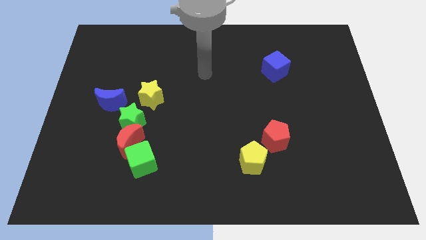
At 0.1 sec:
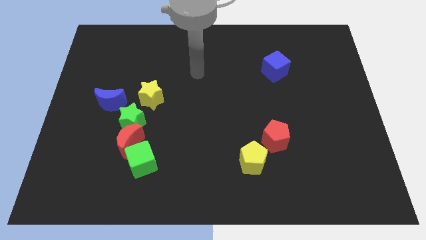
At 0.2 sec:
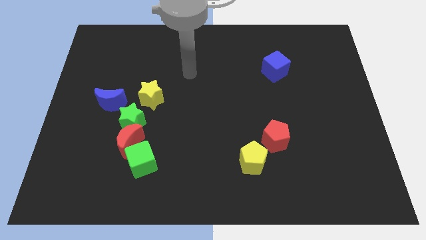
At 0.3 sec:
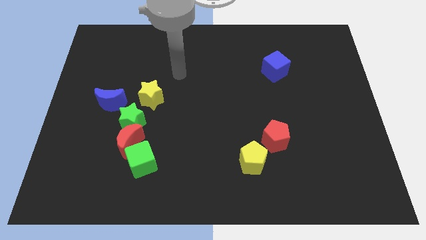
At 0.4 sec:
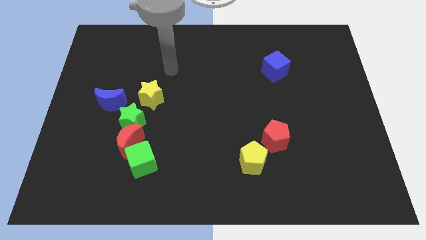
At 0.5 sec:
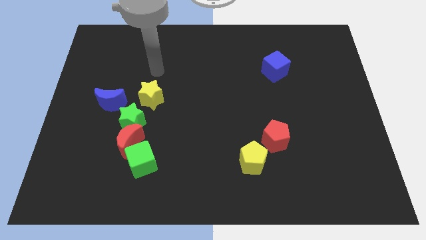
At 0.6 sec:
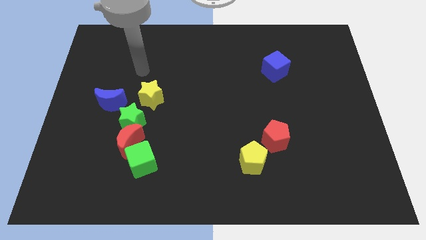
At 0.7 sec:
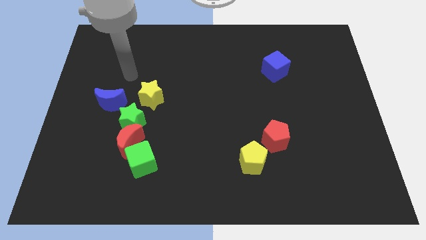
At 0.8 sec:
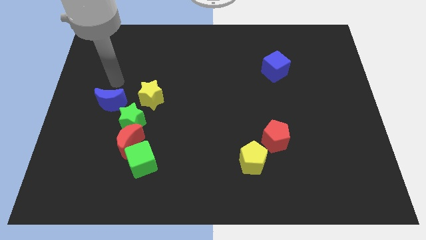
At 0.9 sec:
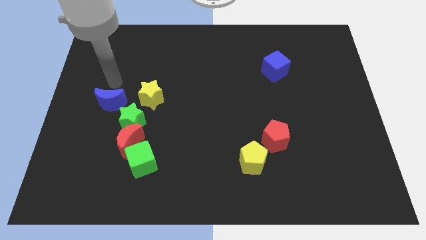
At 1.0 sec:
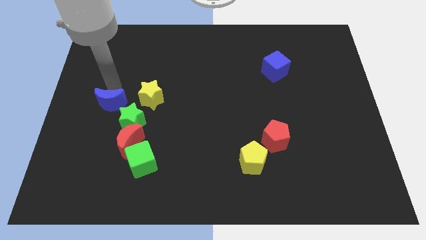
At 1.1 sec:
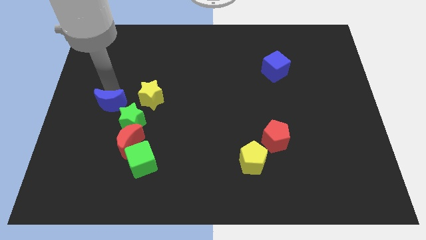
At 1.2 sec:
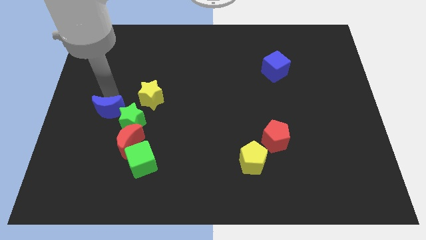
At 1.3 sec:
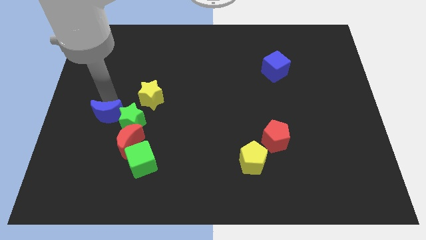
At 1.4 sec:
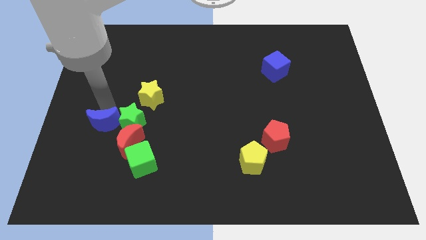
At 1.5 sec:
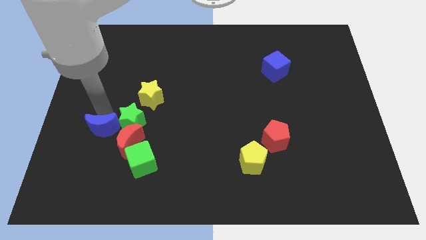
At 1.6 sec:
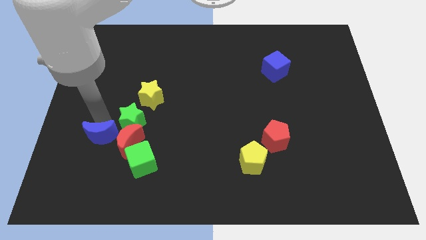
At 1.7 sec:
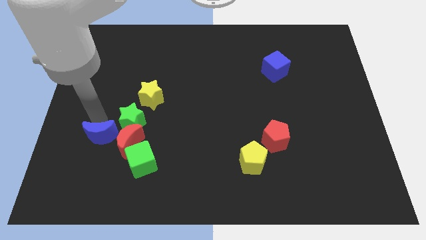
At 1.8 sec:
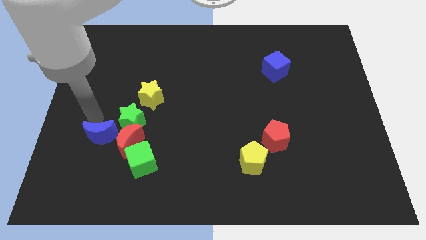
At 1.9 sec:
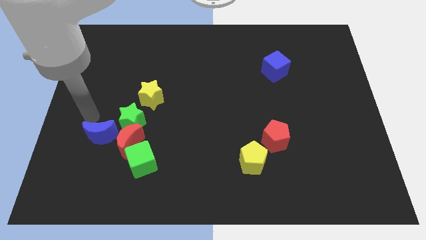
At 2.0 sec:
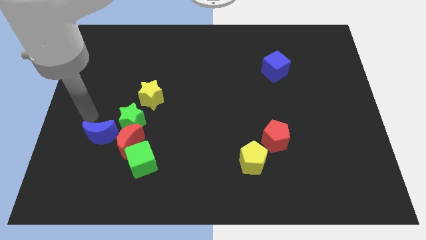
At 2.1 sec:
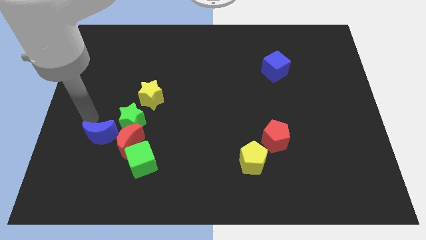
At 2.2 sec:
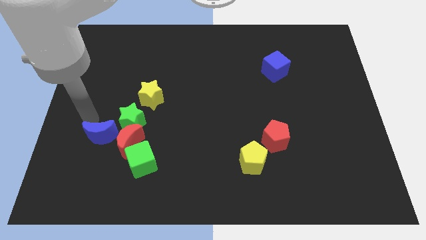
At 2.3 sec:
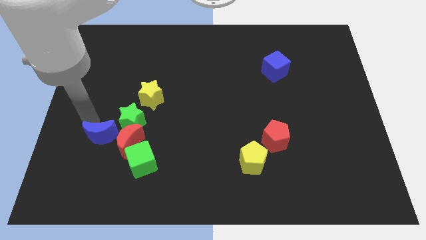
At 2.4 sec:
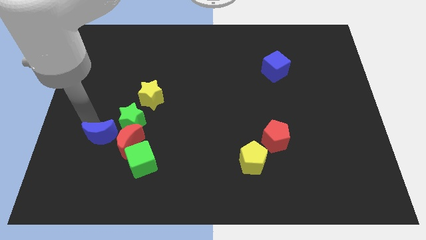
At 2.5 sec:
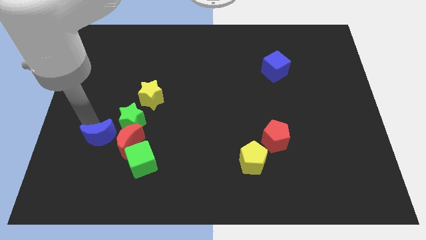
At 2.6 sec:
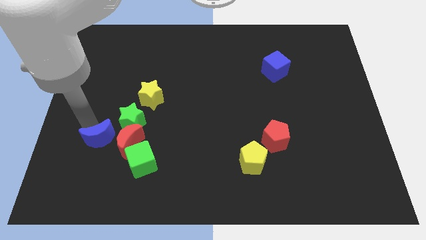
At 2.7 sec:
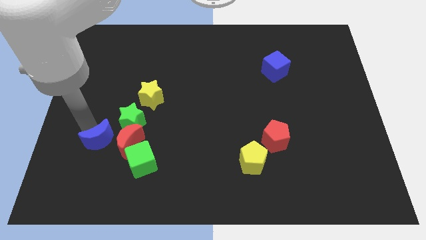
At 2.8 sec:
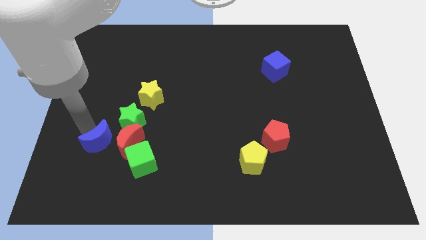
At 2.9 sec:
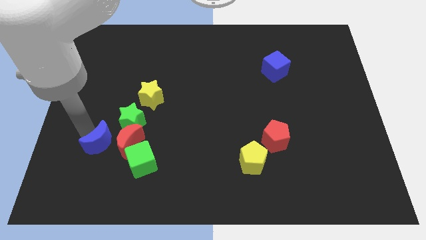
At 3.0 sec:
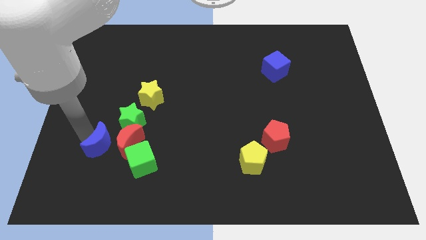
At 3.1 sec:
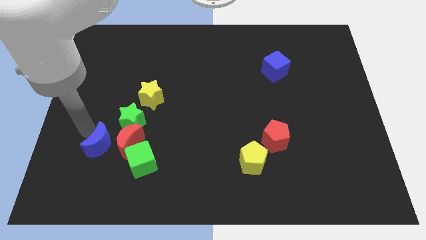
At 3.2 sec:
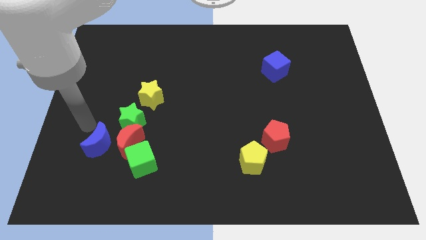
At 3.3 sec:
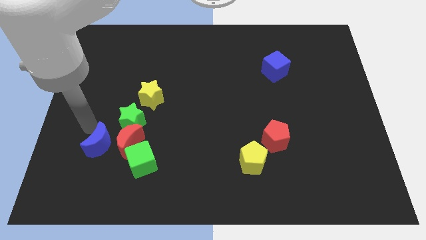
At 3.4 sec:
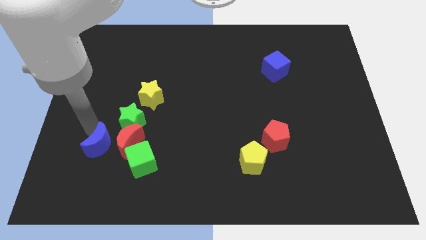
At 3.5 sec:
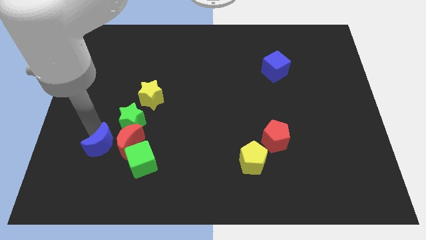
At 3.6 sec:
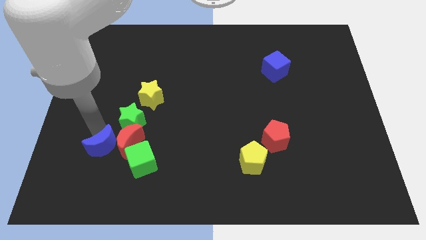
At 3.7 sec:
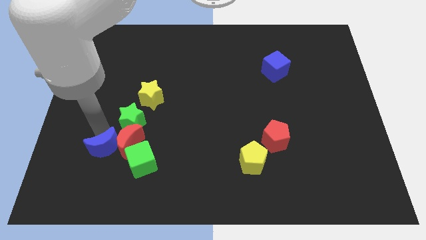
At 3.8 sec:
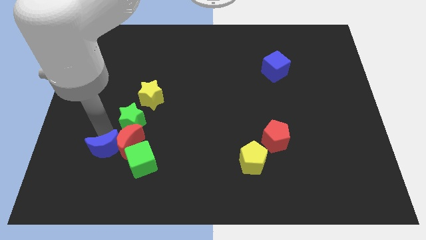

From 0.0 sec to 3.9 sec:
push the blue moon down and right diagonally slightly

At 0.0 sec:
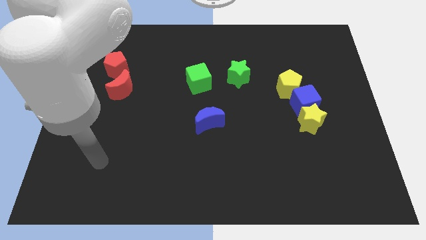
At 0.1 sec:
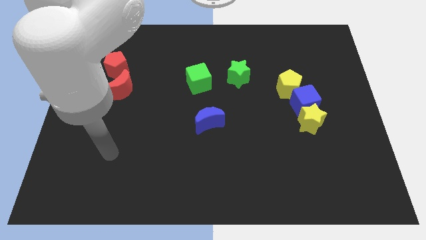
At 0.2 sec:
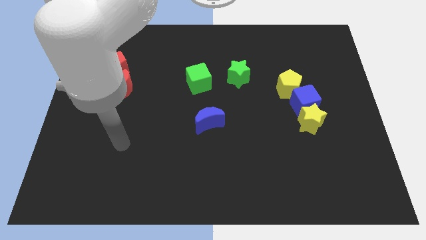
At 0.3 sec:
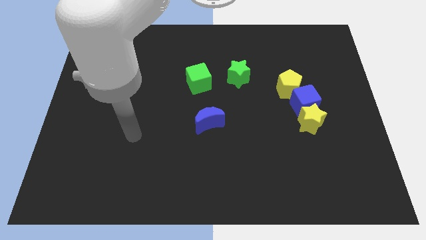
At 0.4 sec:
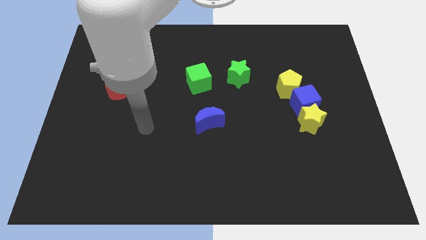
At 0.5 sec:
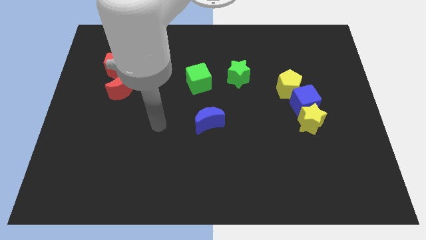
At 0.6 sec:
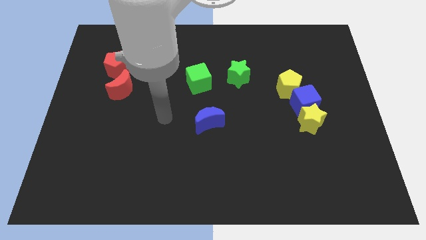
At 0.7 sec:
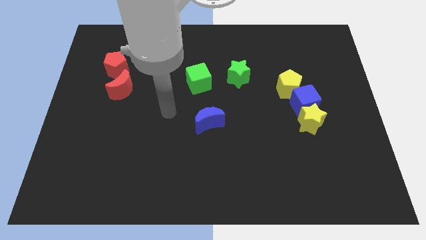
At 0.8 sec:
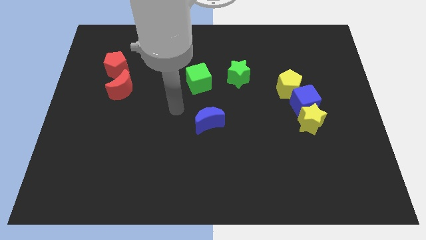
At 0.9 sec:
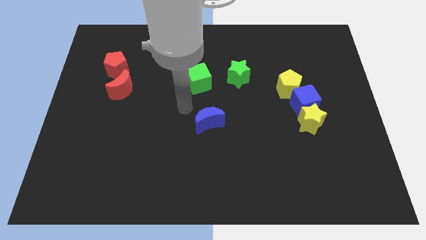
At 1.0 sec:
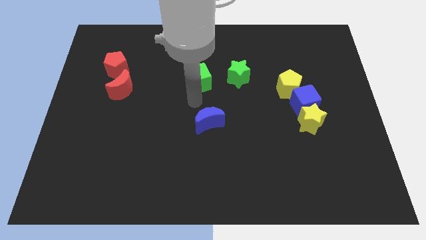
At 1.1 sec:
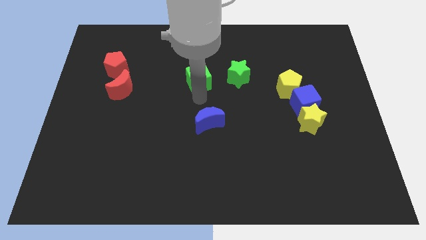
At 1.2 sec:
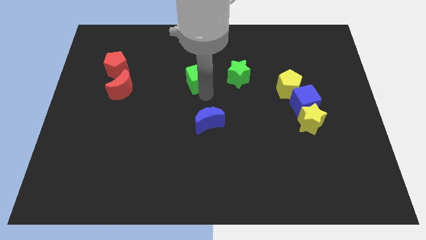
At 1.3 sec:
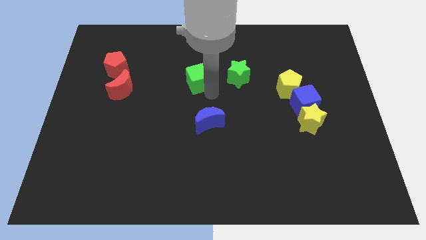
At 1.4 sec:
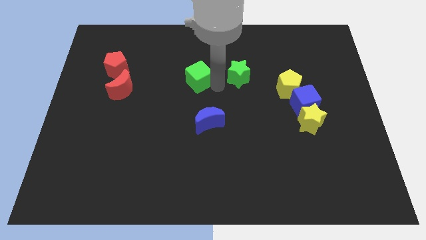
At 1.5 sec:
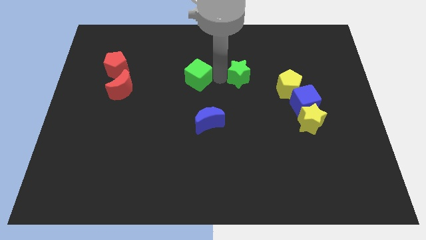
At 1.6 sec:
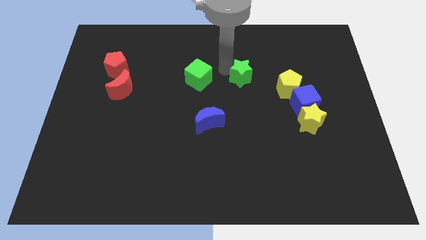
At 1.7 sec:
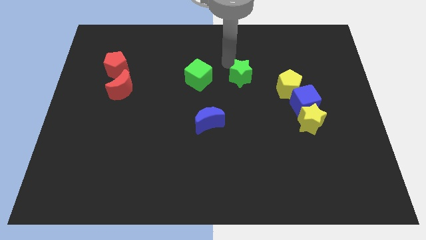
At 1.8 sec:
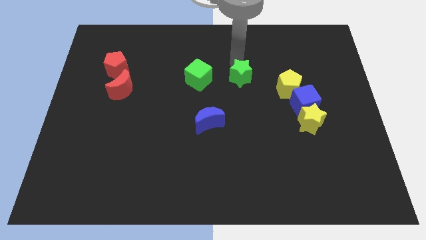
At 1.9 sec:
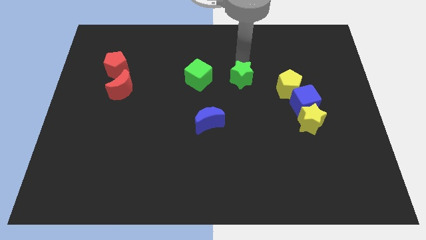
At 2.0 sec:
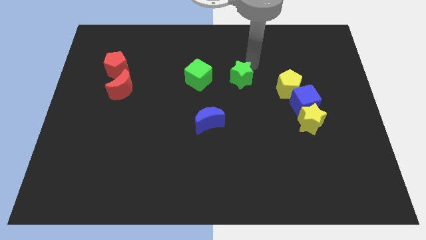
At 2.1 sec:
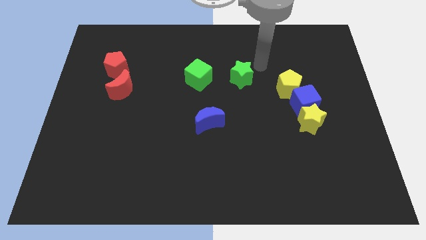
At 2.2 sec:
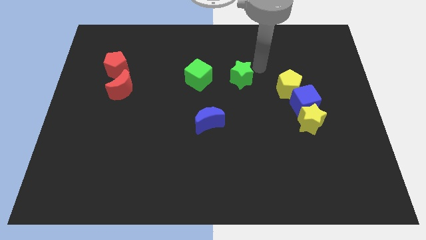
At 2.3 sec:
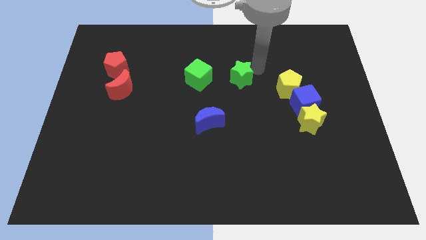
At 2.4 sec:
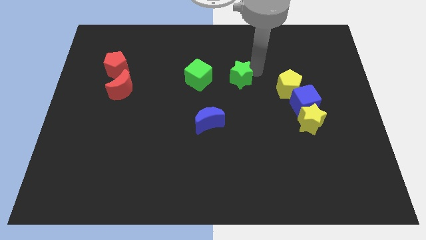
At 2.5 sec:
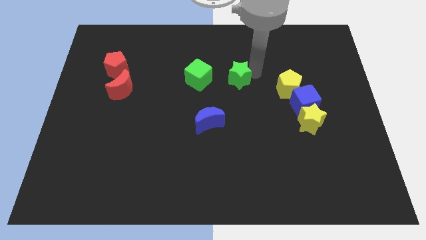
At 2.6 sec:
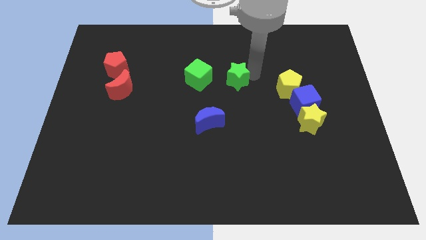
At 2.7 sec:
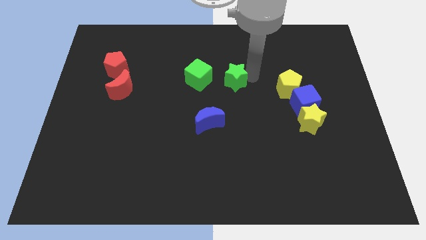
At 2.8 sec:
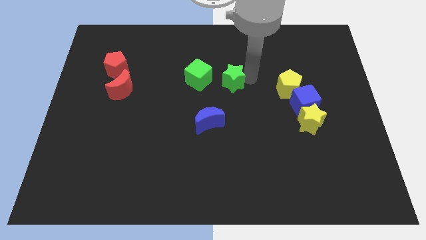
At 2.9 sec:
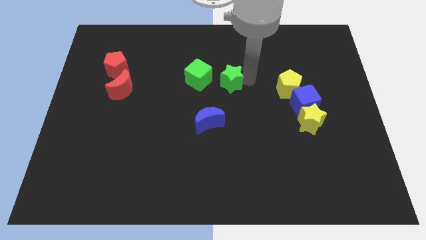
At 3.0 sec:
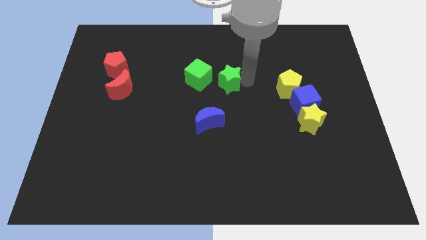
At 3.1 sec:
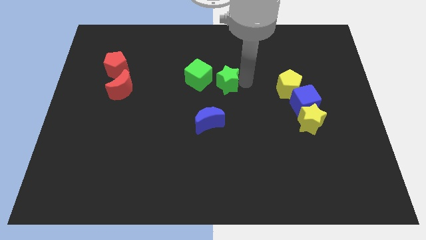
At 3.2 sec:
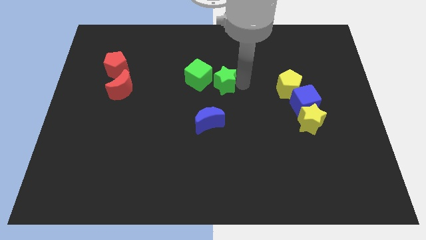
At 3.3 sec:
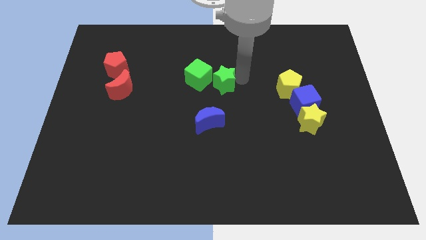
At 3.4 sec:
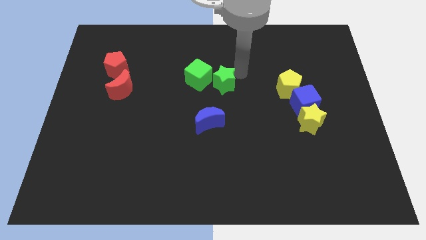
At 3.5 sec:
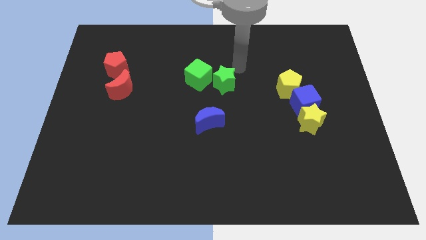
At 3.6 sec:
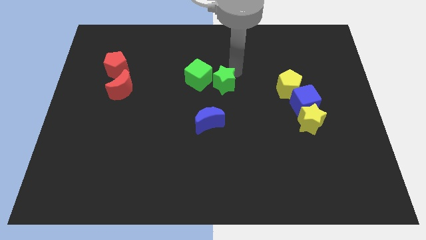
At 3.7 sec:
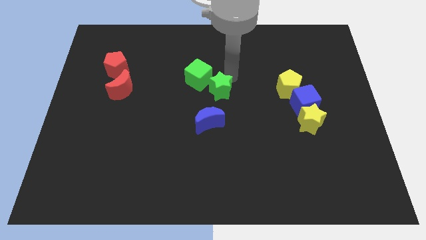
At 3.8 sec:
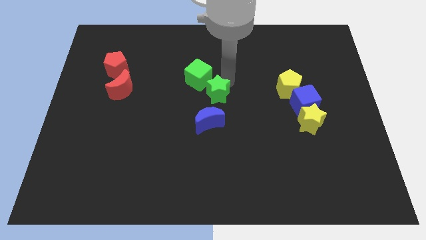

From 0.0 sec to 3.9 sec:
slide the green star down and to the left diagonally a bit

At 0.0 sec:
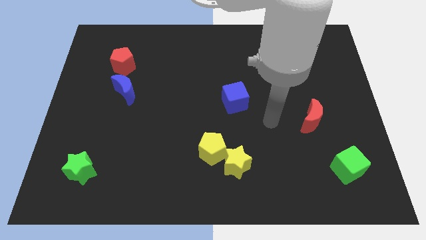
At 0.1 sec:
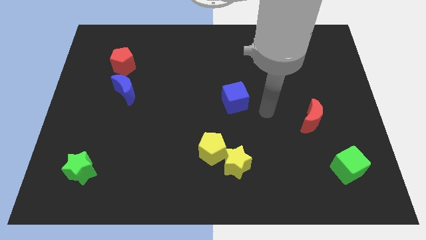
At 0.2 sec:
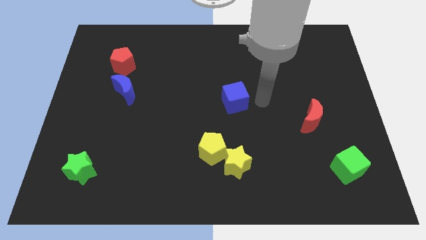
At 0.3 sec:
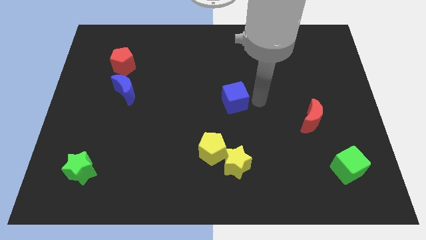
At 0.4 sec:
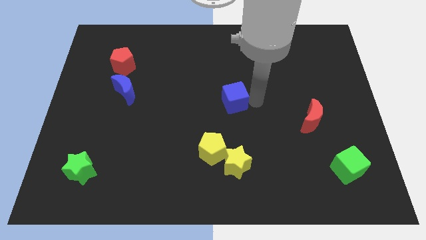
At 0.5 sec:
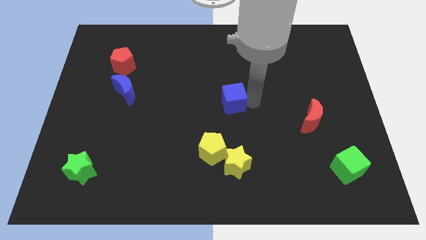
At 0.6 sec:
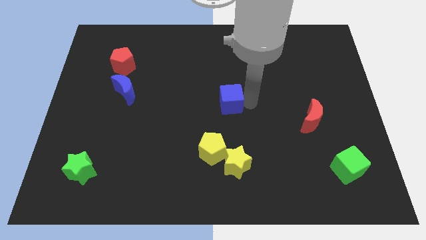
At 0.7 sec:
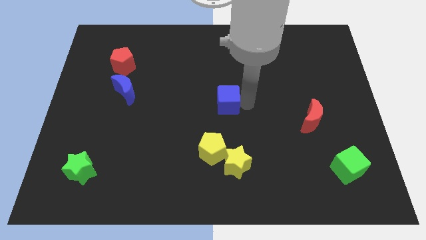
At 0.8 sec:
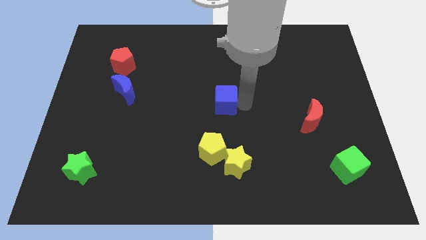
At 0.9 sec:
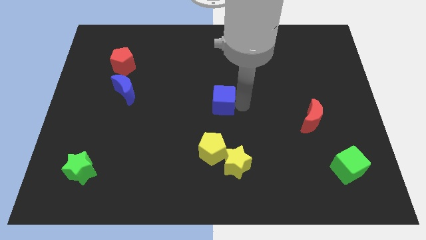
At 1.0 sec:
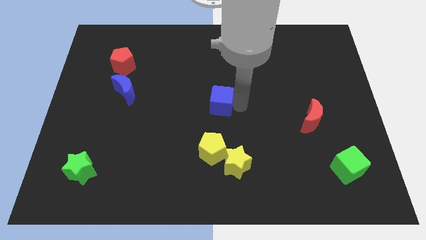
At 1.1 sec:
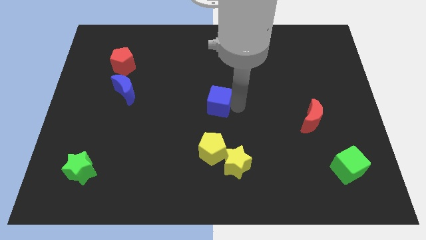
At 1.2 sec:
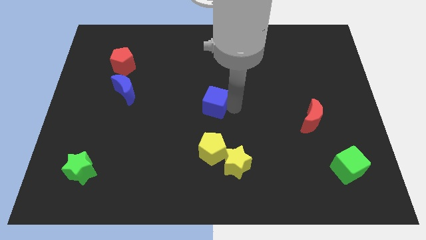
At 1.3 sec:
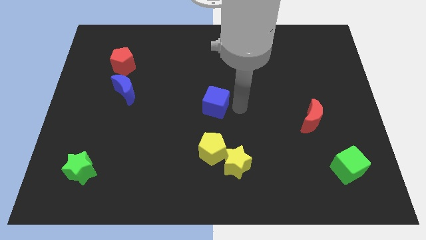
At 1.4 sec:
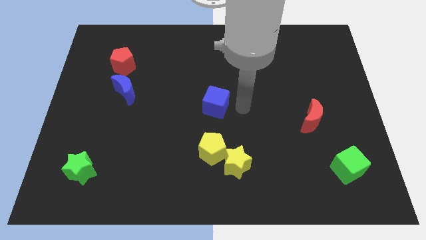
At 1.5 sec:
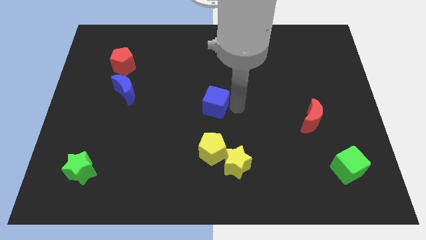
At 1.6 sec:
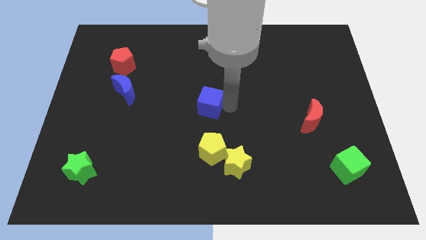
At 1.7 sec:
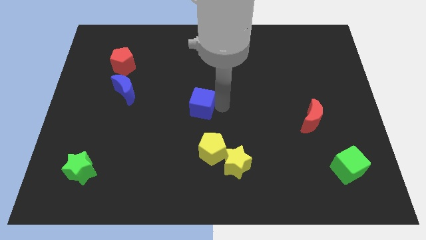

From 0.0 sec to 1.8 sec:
move the blue cube left a bit
